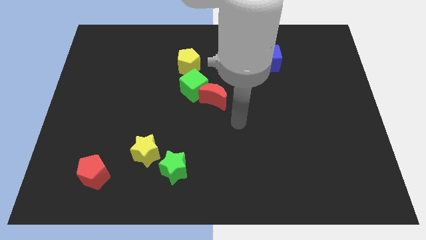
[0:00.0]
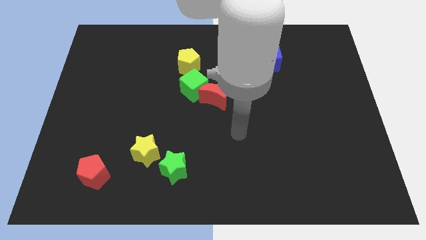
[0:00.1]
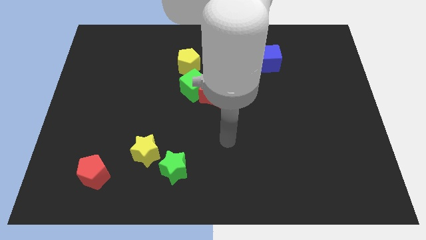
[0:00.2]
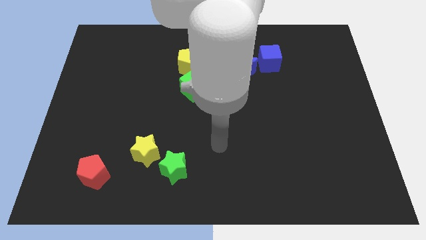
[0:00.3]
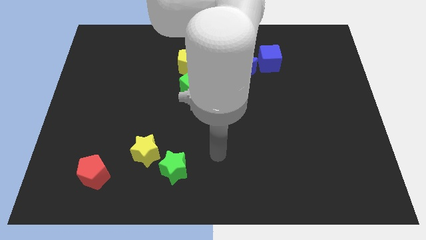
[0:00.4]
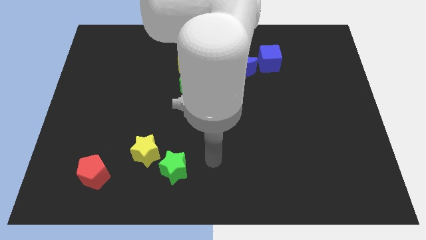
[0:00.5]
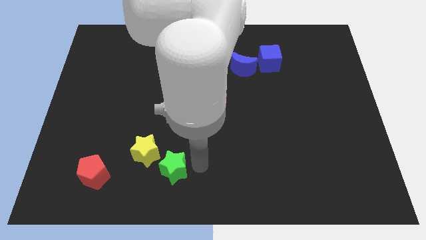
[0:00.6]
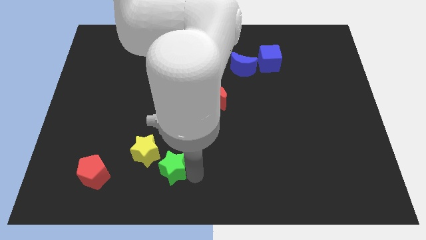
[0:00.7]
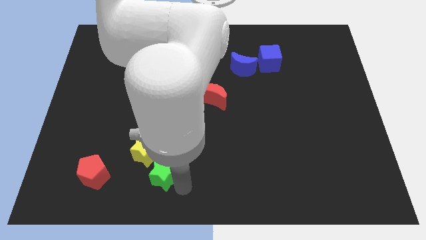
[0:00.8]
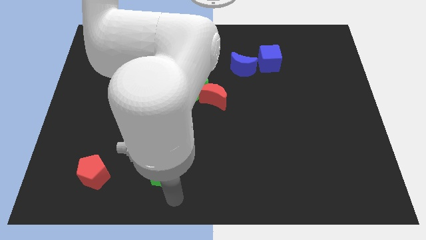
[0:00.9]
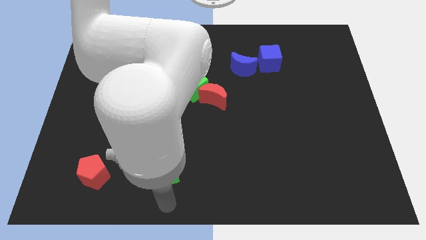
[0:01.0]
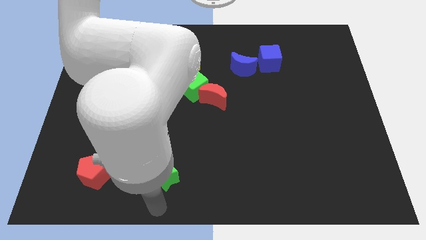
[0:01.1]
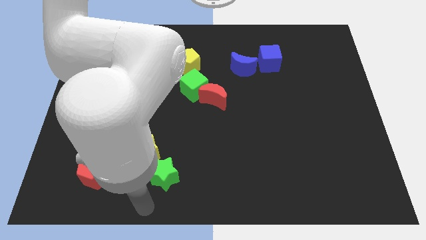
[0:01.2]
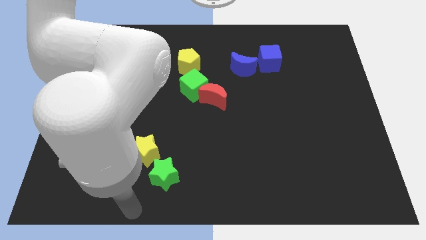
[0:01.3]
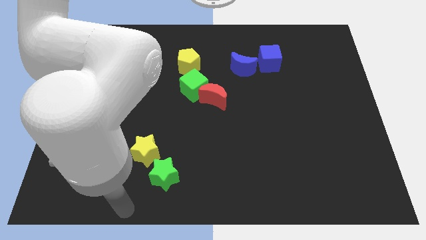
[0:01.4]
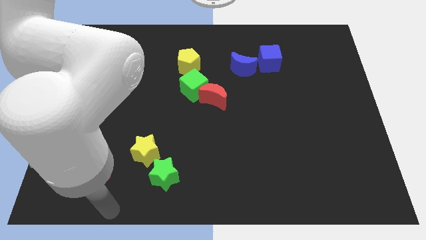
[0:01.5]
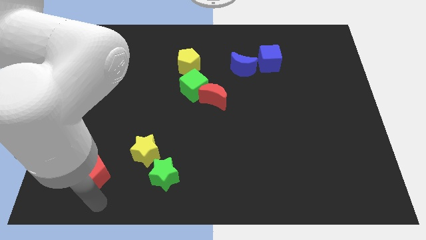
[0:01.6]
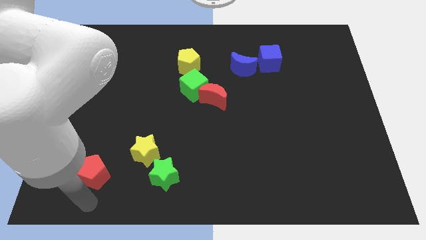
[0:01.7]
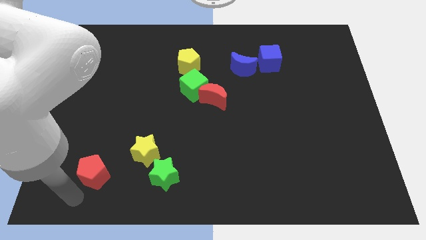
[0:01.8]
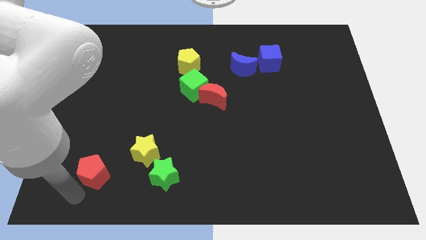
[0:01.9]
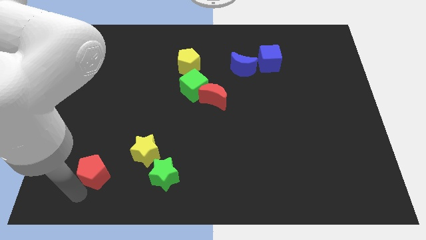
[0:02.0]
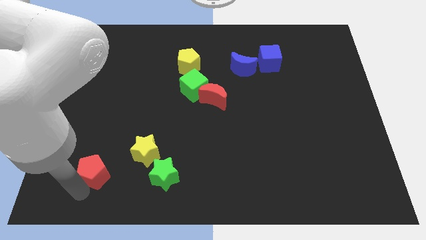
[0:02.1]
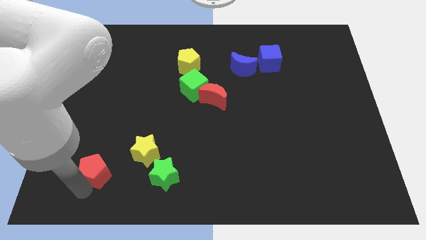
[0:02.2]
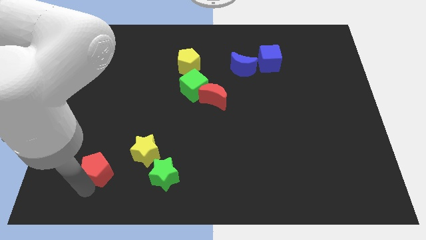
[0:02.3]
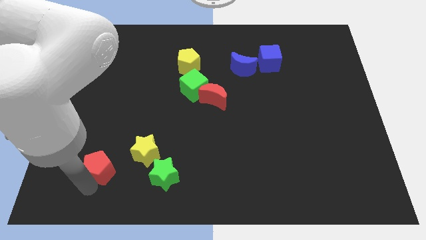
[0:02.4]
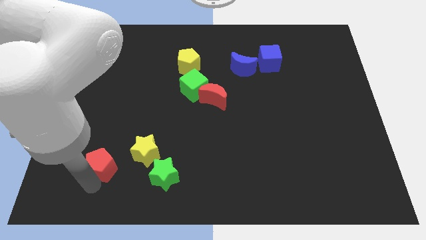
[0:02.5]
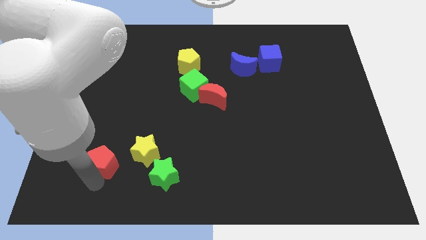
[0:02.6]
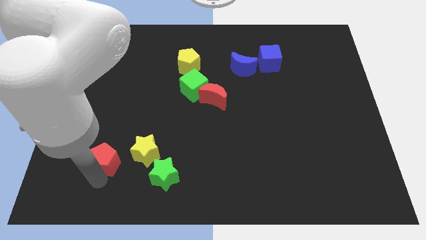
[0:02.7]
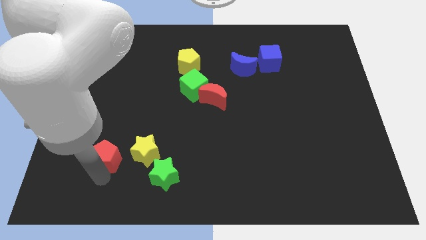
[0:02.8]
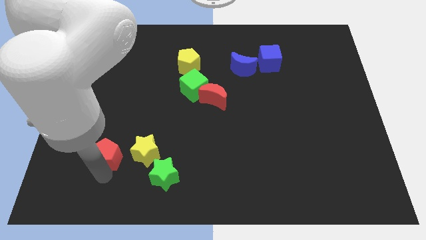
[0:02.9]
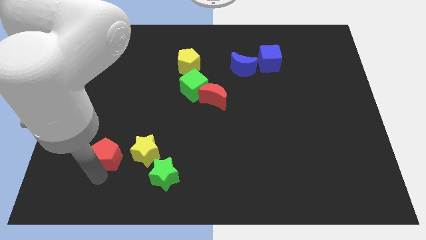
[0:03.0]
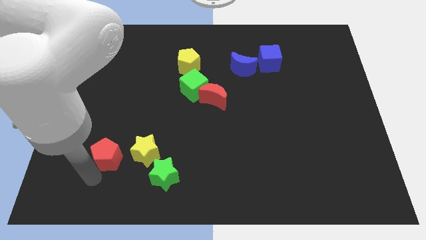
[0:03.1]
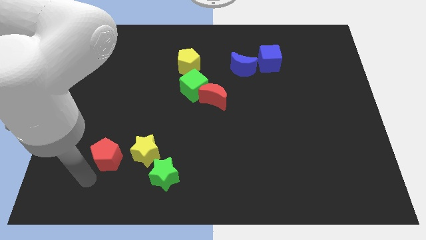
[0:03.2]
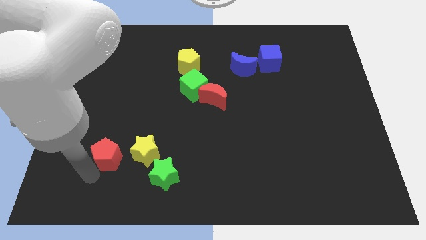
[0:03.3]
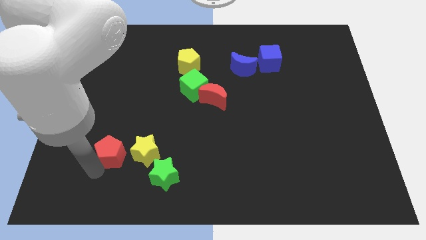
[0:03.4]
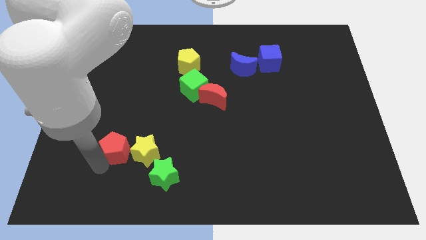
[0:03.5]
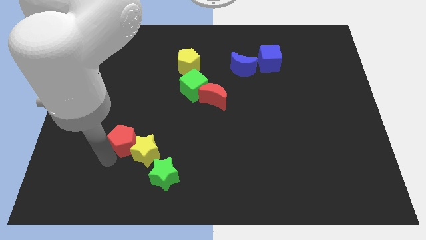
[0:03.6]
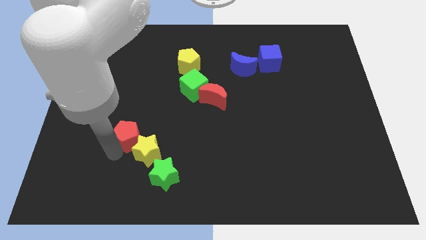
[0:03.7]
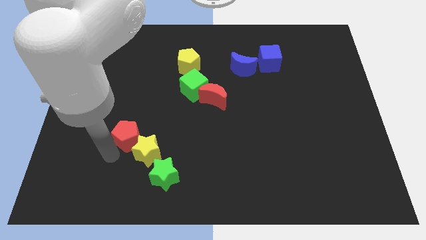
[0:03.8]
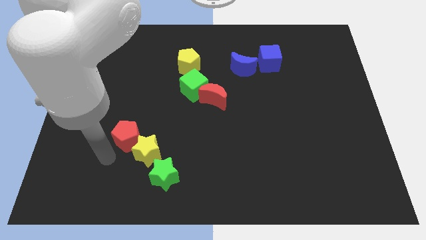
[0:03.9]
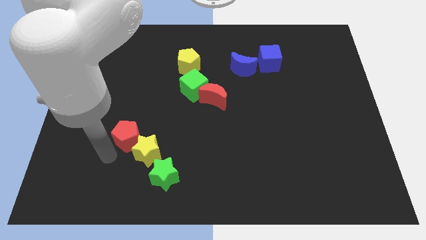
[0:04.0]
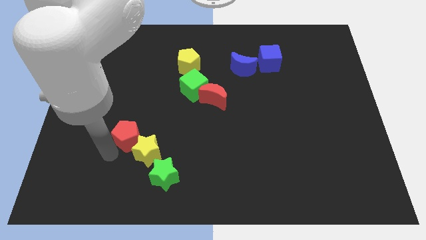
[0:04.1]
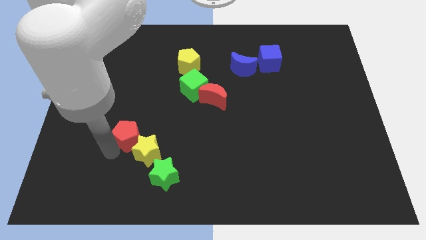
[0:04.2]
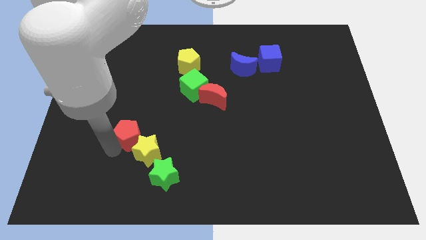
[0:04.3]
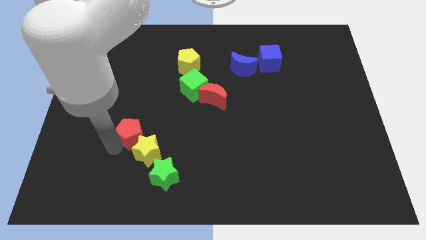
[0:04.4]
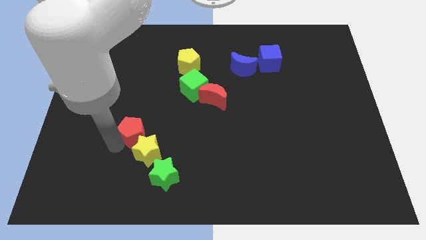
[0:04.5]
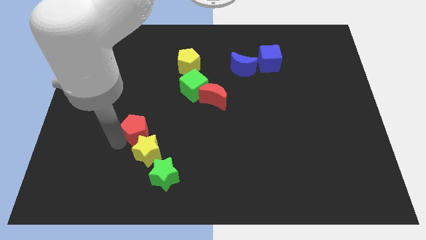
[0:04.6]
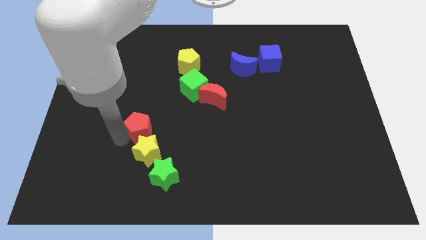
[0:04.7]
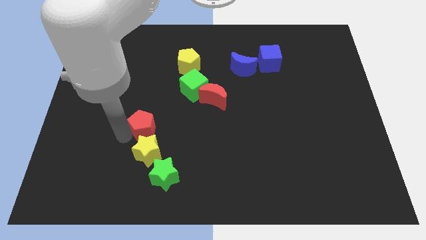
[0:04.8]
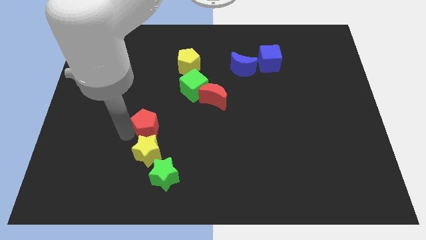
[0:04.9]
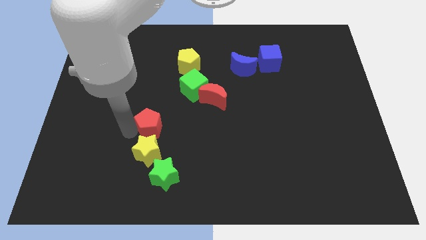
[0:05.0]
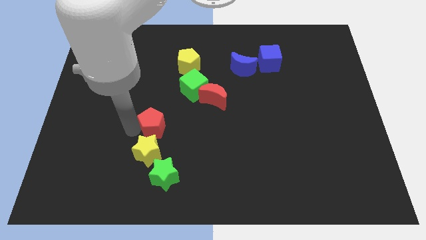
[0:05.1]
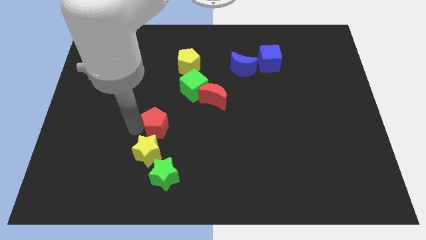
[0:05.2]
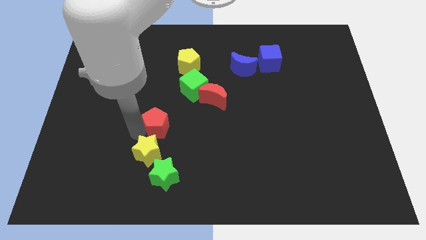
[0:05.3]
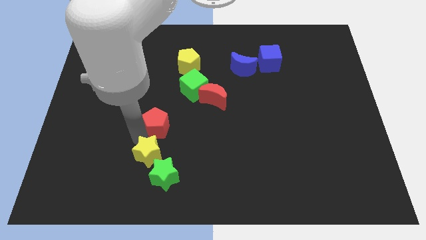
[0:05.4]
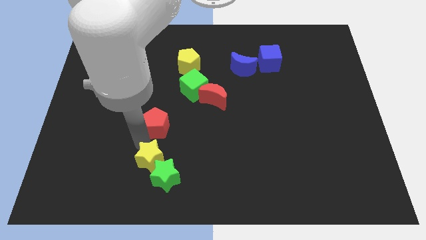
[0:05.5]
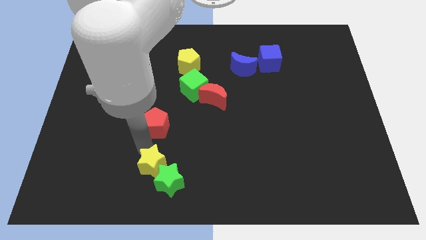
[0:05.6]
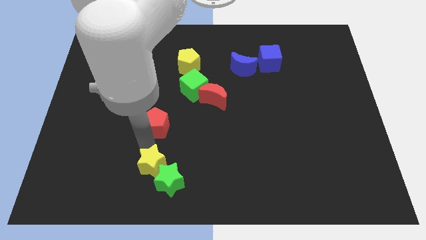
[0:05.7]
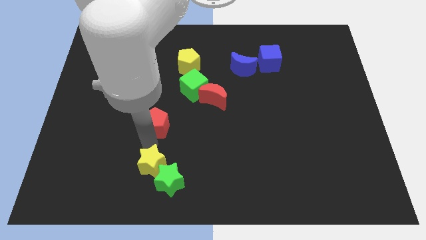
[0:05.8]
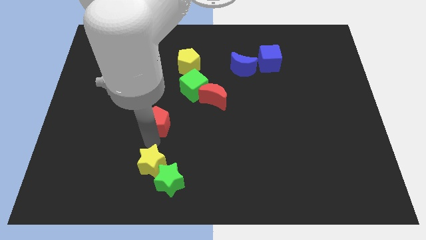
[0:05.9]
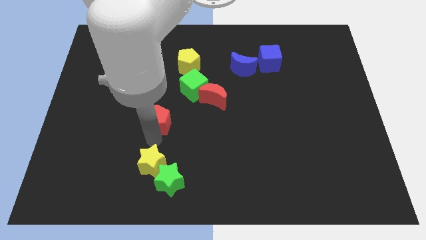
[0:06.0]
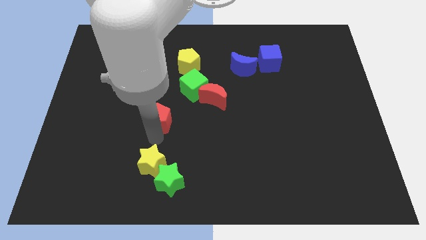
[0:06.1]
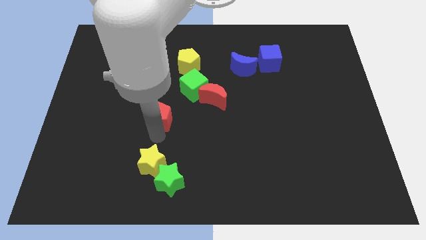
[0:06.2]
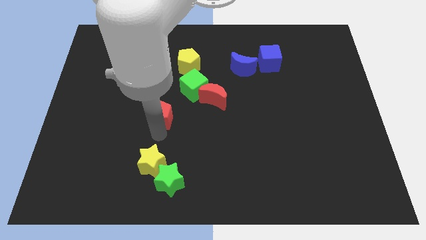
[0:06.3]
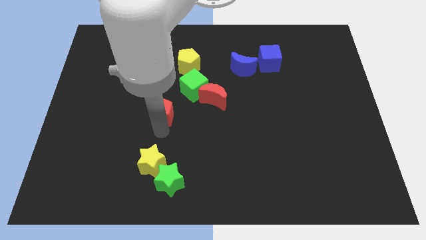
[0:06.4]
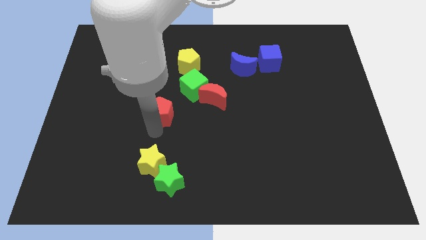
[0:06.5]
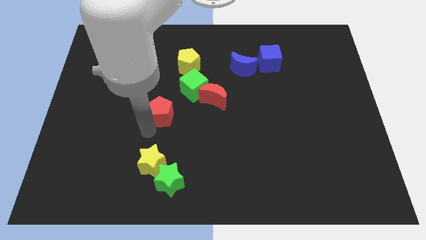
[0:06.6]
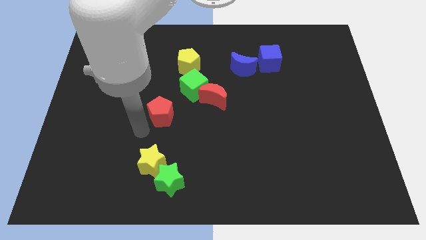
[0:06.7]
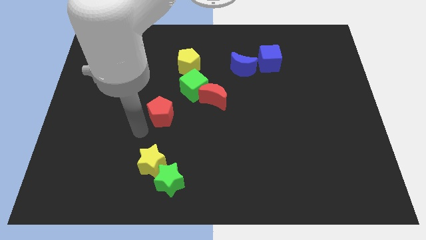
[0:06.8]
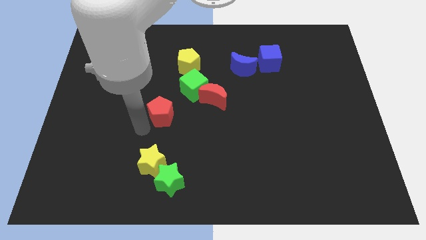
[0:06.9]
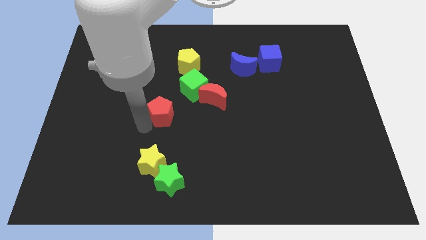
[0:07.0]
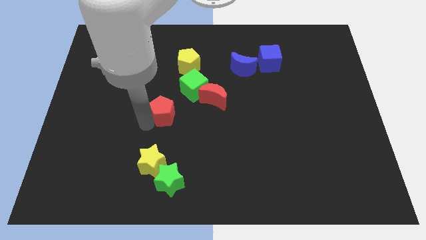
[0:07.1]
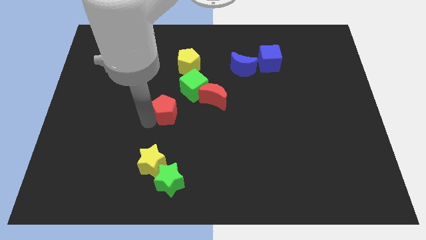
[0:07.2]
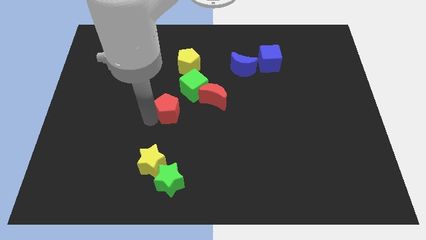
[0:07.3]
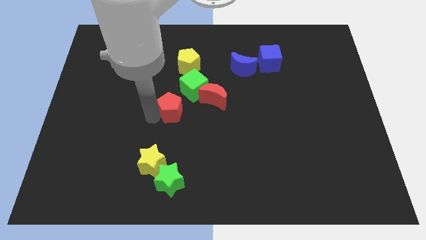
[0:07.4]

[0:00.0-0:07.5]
push the red pentagon to the bottom side of the yellow pentagon

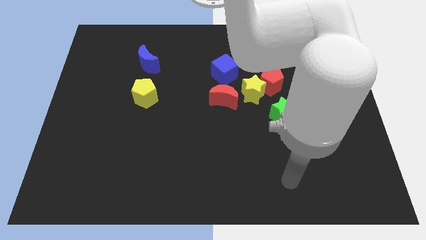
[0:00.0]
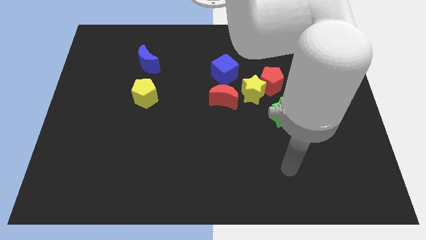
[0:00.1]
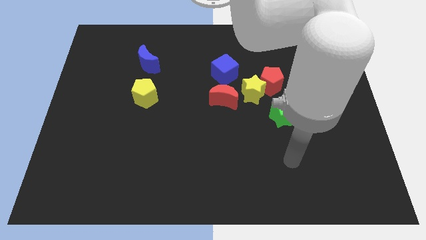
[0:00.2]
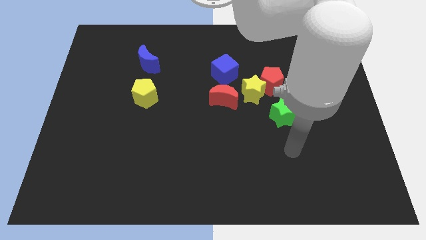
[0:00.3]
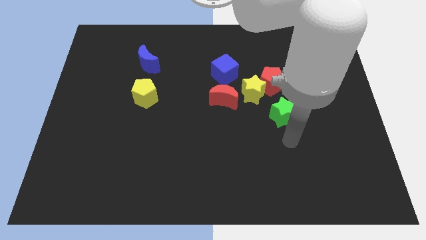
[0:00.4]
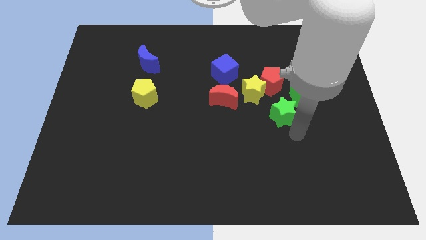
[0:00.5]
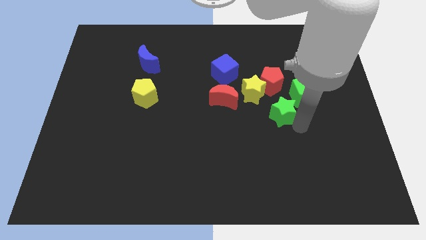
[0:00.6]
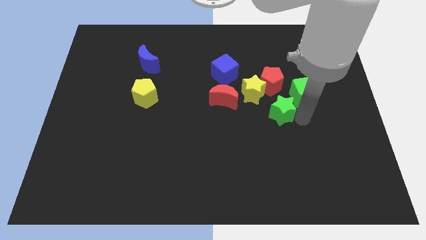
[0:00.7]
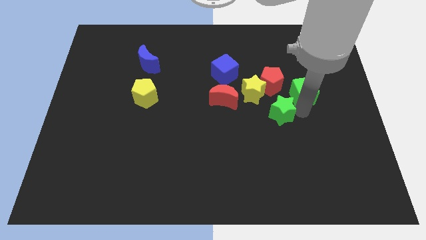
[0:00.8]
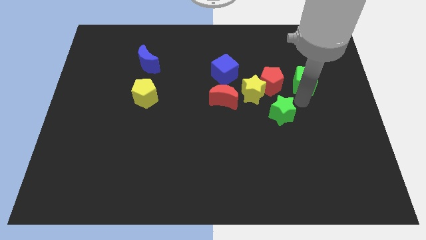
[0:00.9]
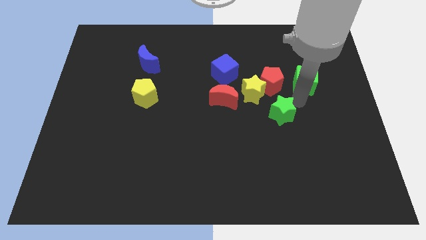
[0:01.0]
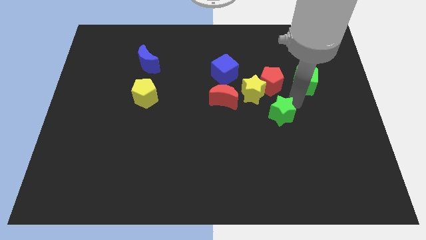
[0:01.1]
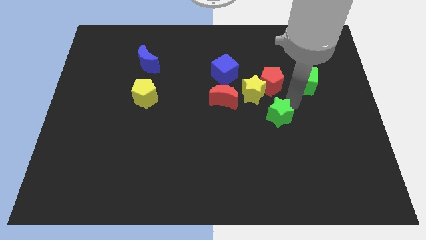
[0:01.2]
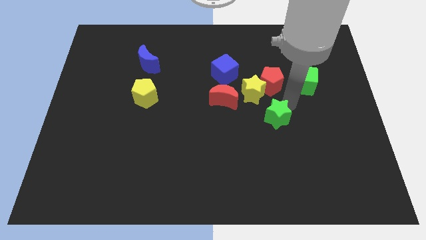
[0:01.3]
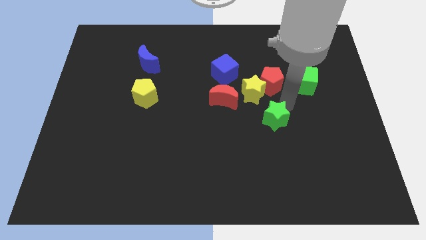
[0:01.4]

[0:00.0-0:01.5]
slide the green star to the bottom side of the yellow star
